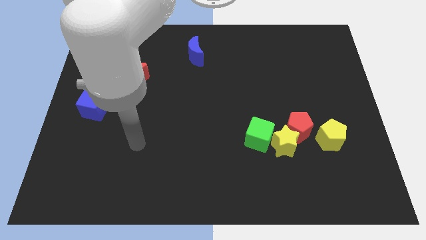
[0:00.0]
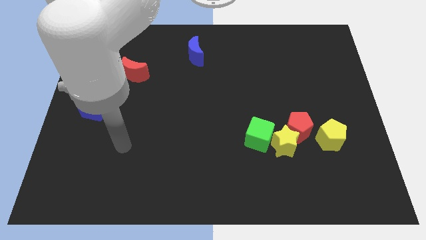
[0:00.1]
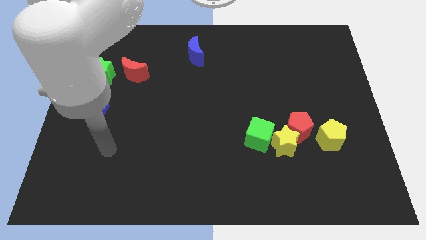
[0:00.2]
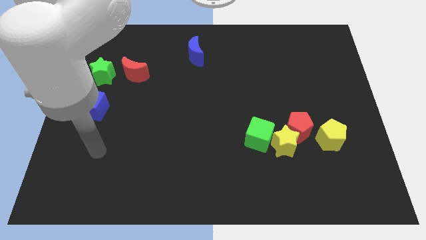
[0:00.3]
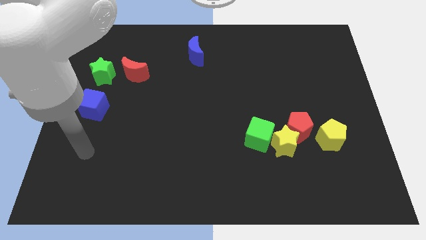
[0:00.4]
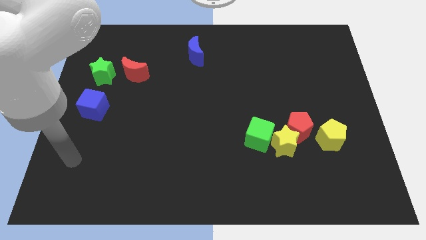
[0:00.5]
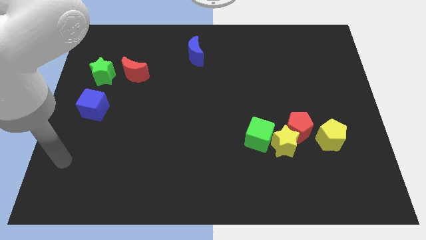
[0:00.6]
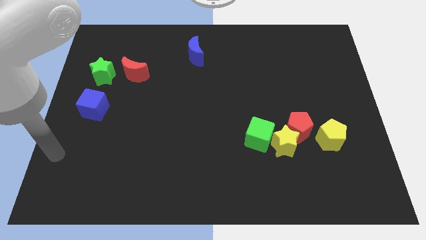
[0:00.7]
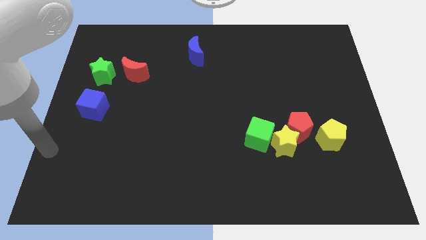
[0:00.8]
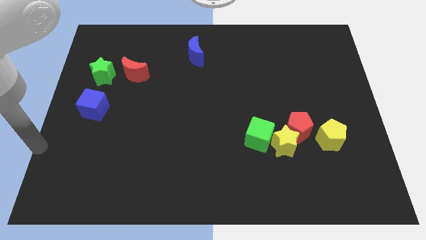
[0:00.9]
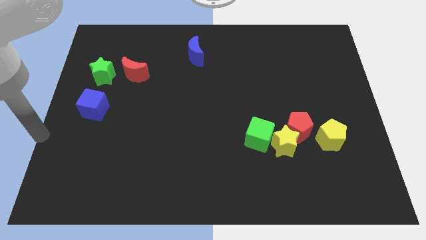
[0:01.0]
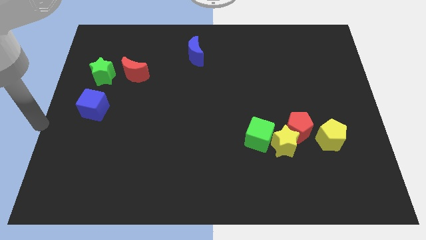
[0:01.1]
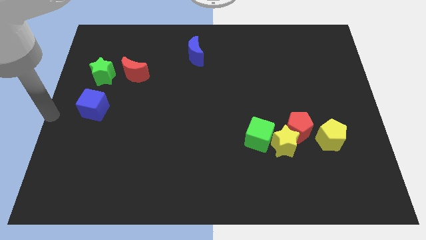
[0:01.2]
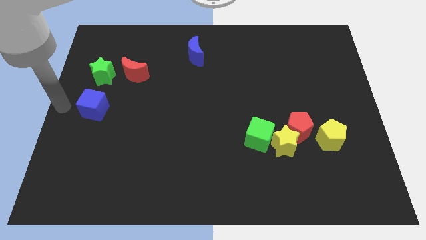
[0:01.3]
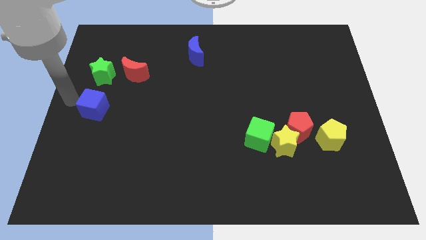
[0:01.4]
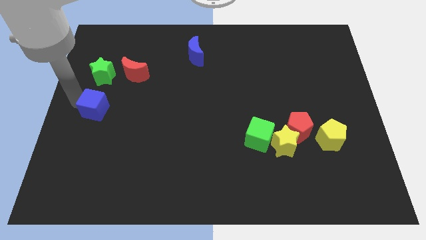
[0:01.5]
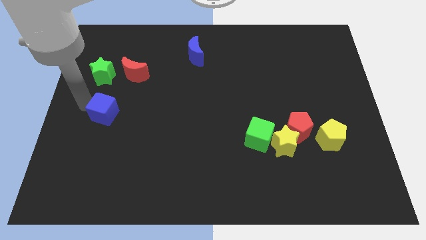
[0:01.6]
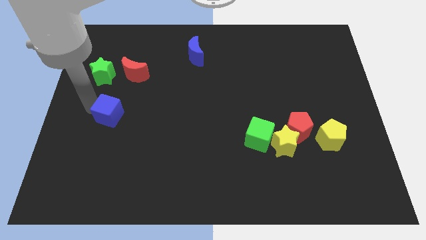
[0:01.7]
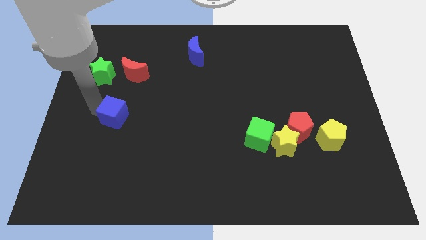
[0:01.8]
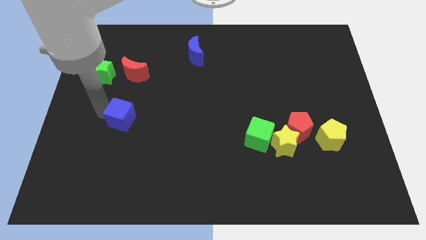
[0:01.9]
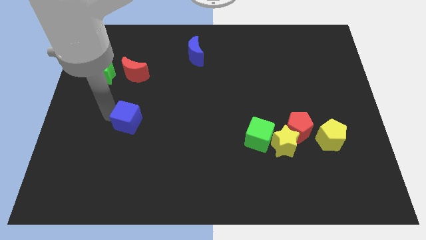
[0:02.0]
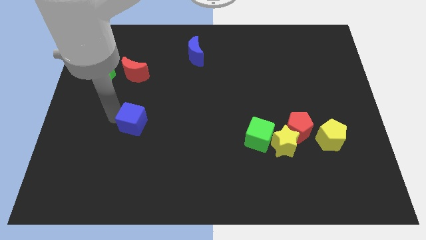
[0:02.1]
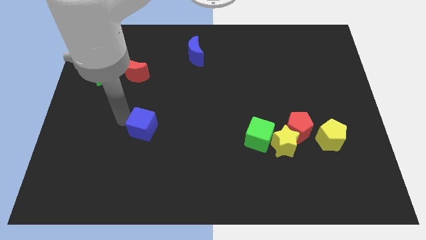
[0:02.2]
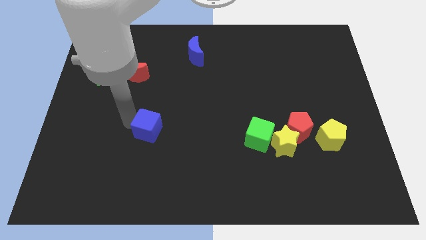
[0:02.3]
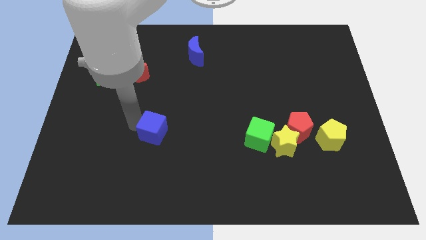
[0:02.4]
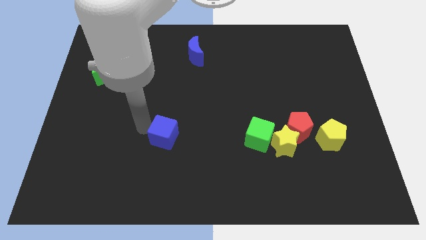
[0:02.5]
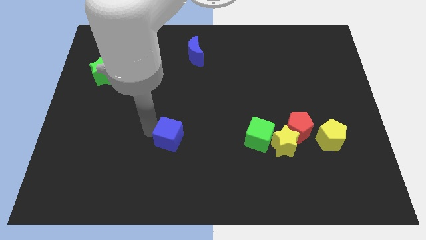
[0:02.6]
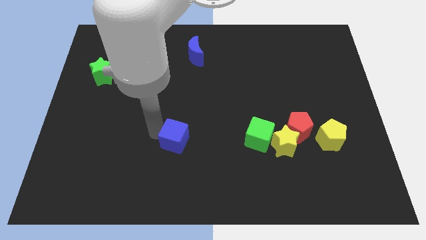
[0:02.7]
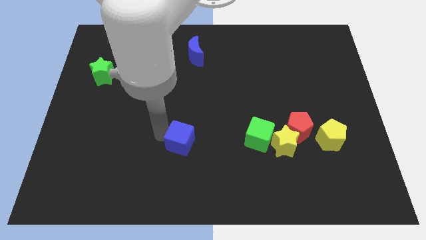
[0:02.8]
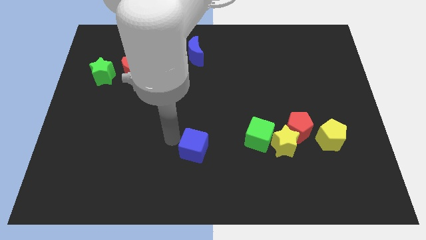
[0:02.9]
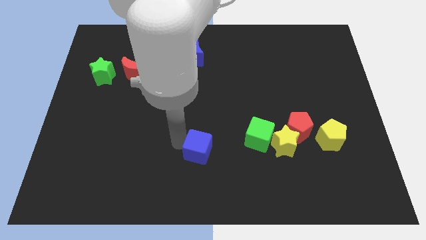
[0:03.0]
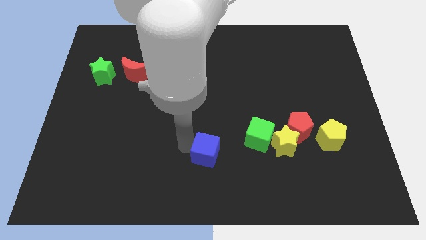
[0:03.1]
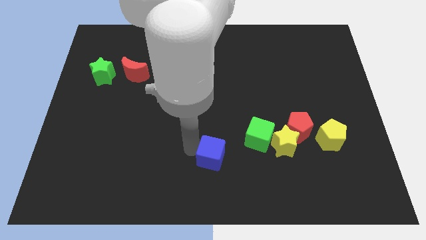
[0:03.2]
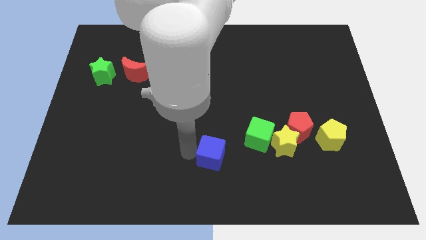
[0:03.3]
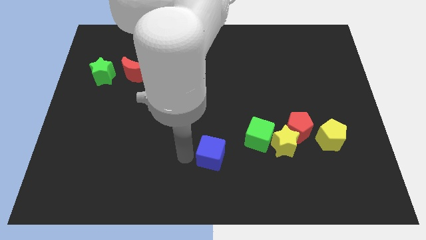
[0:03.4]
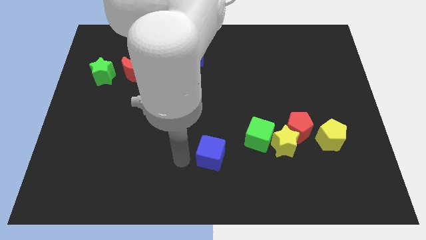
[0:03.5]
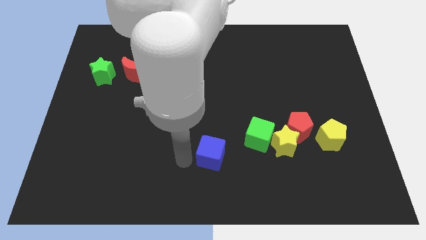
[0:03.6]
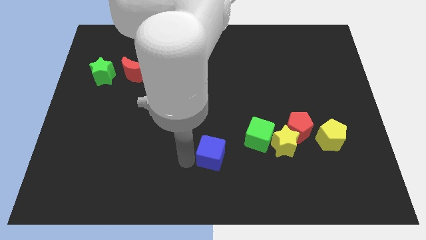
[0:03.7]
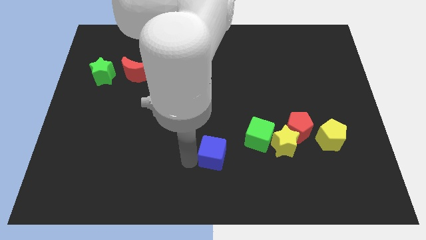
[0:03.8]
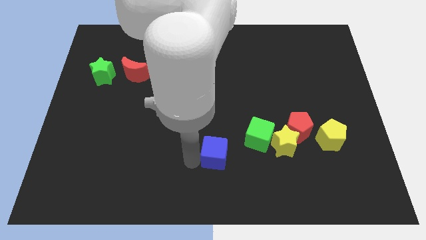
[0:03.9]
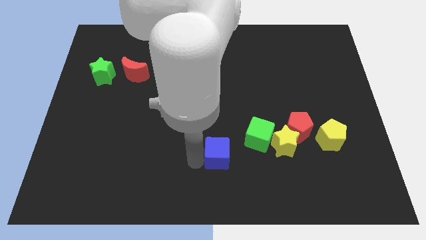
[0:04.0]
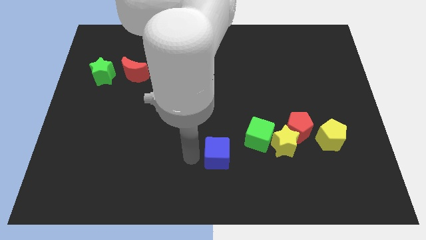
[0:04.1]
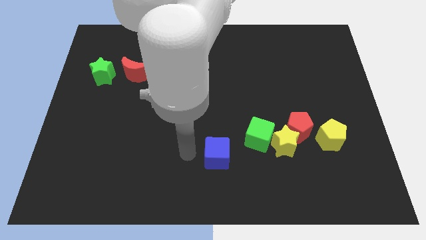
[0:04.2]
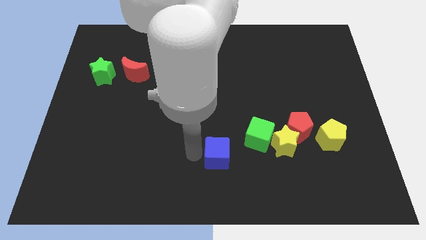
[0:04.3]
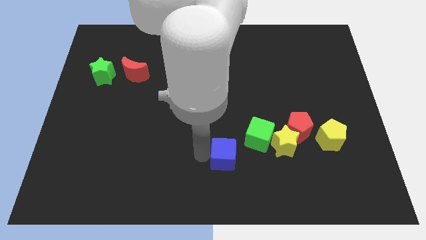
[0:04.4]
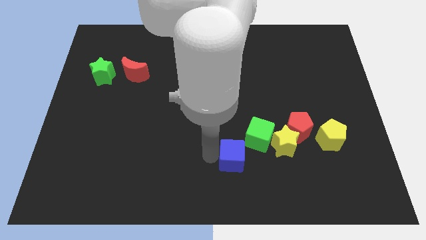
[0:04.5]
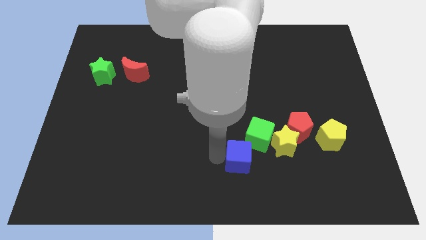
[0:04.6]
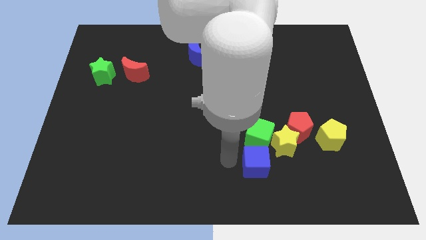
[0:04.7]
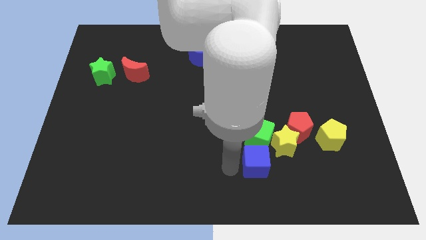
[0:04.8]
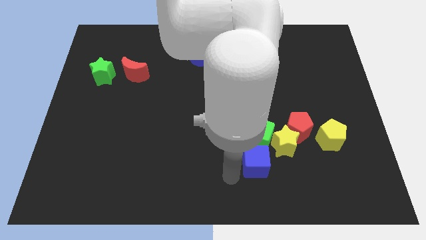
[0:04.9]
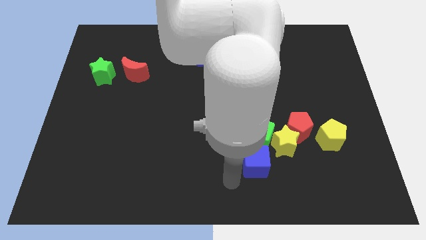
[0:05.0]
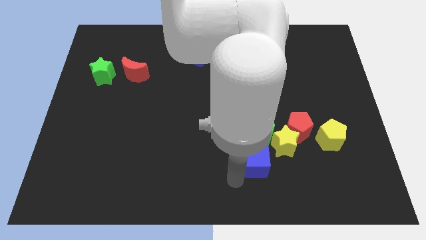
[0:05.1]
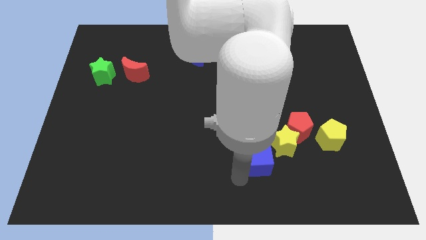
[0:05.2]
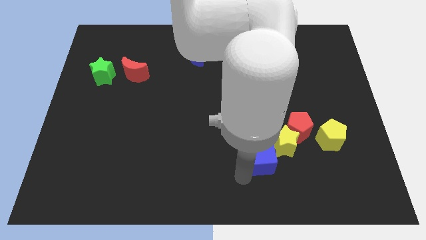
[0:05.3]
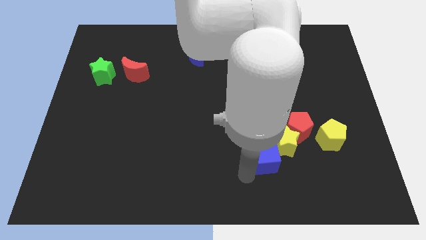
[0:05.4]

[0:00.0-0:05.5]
move the blue cube next to the yellow star

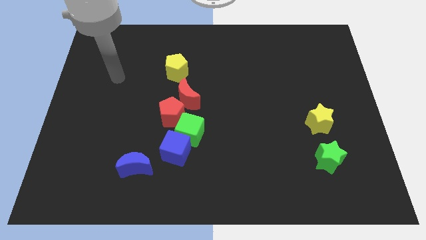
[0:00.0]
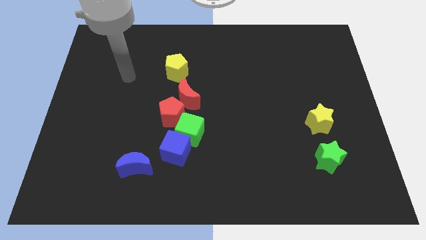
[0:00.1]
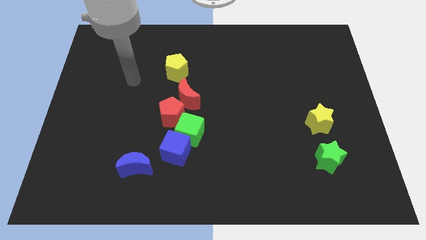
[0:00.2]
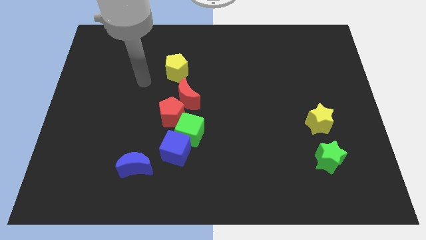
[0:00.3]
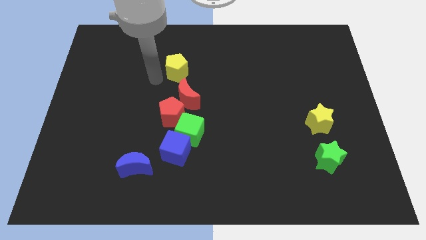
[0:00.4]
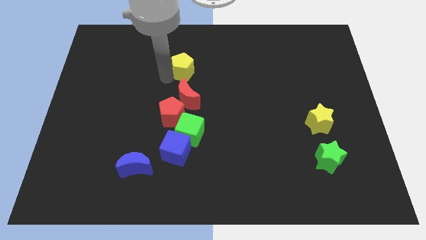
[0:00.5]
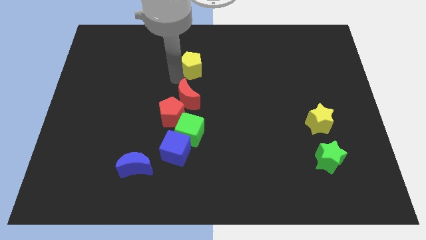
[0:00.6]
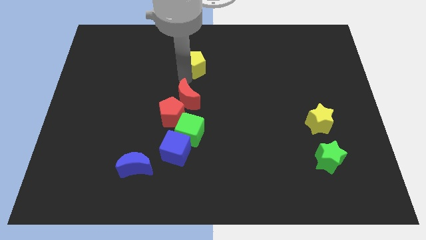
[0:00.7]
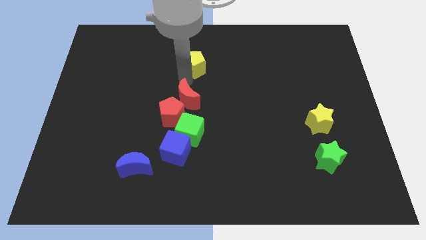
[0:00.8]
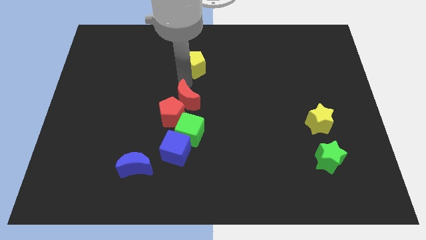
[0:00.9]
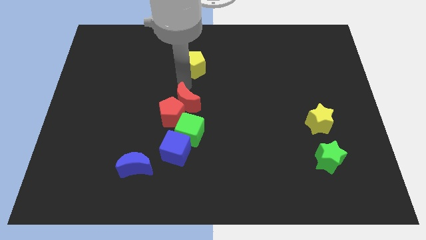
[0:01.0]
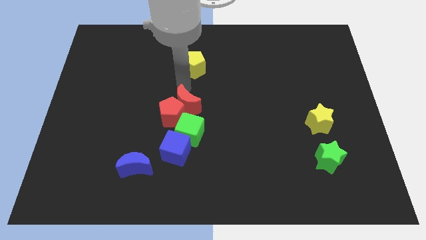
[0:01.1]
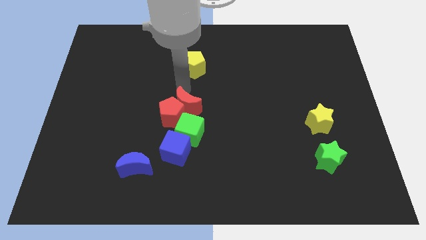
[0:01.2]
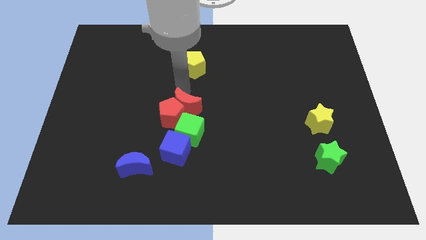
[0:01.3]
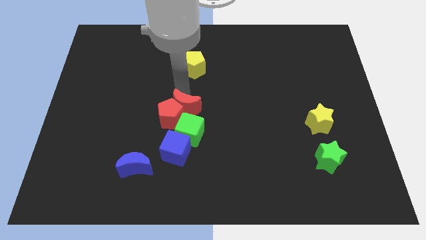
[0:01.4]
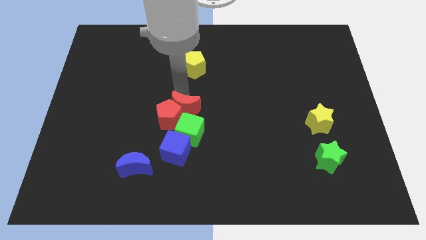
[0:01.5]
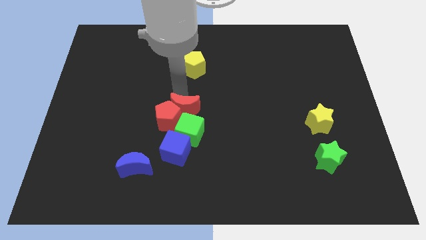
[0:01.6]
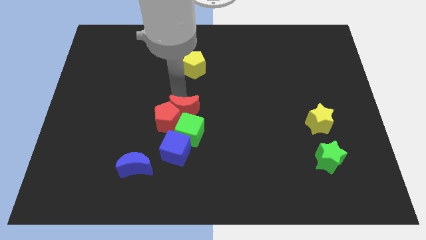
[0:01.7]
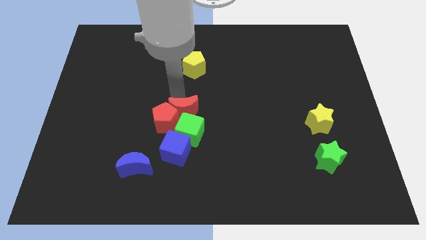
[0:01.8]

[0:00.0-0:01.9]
move the red moon to the green cube
